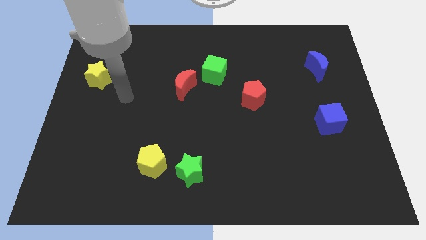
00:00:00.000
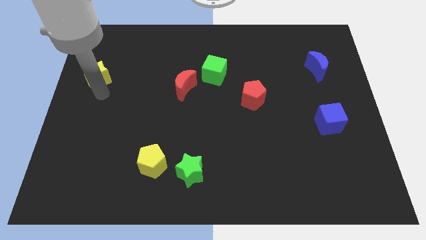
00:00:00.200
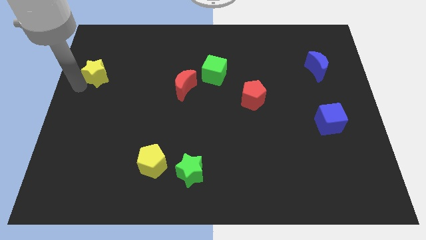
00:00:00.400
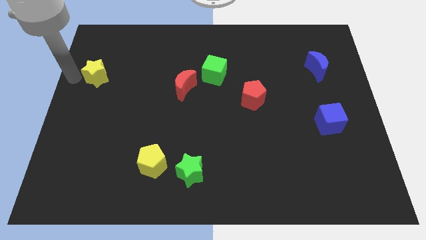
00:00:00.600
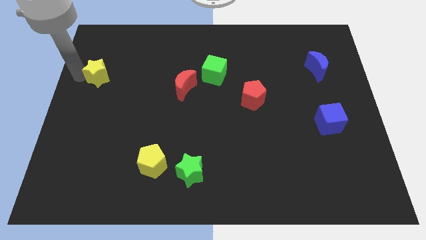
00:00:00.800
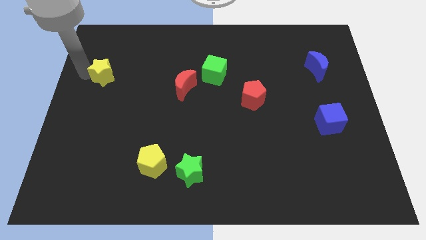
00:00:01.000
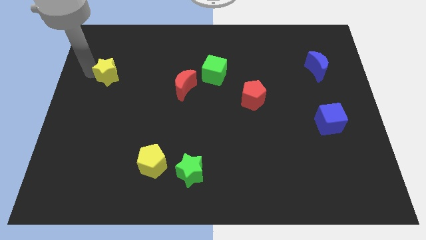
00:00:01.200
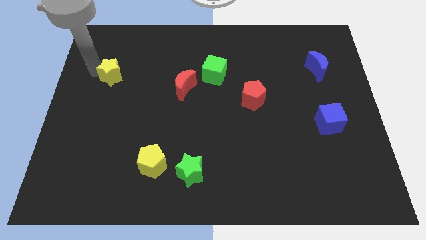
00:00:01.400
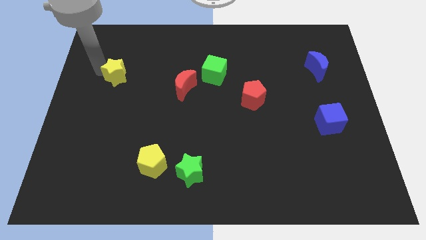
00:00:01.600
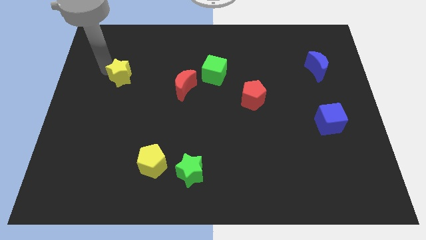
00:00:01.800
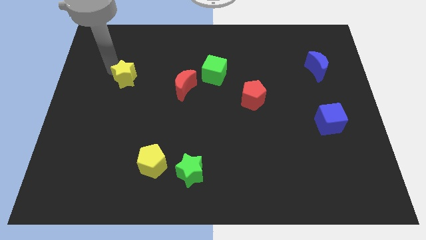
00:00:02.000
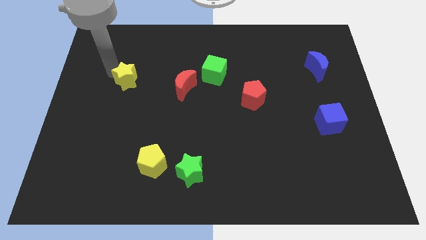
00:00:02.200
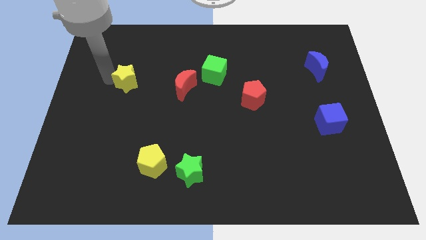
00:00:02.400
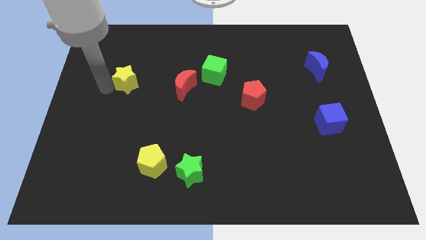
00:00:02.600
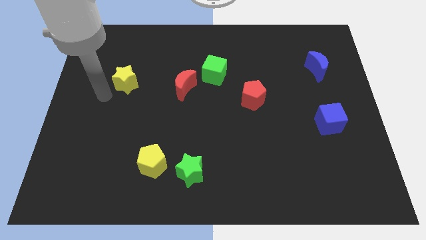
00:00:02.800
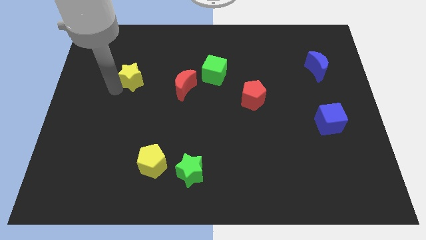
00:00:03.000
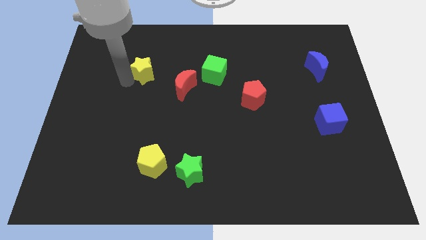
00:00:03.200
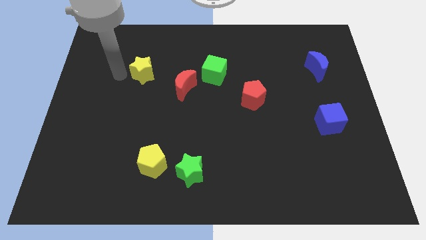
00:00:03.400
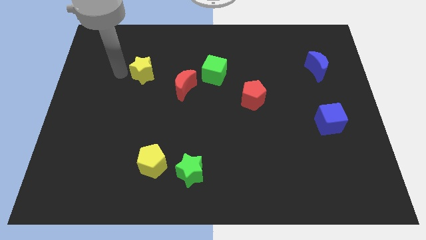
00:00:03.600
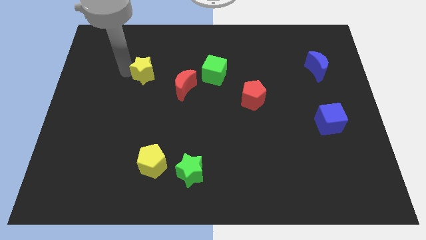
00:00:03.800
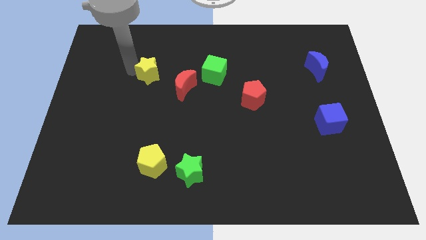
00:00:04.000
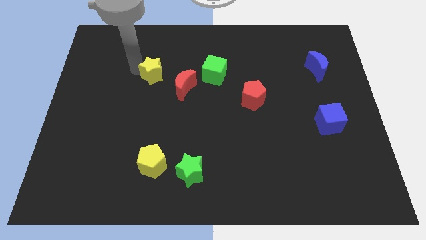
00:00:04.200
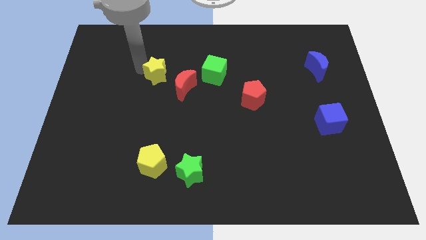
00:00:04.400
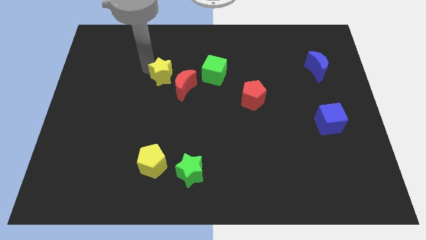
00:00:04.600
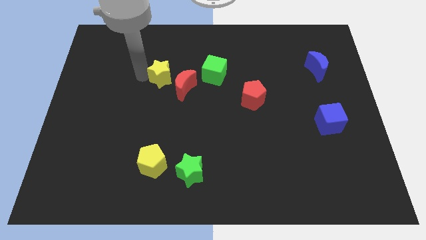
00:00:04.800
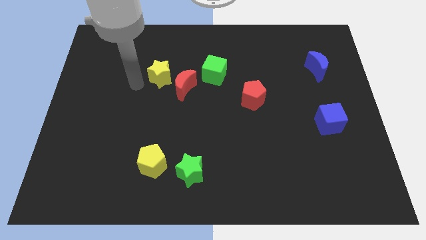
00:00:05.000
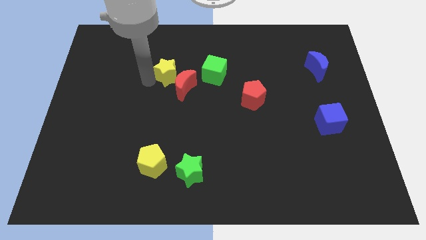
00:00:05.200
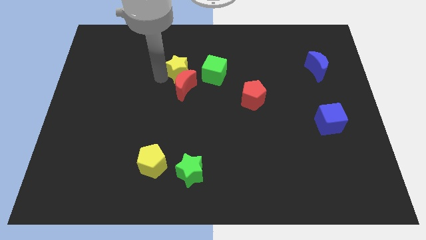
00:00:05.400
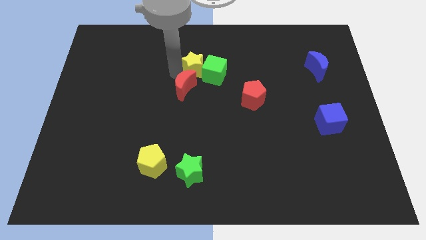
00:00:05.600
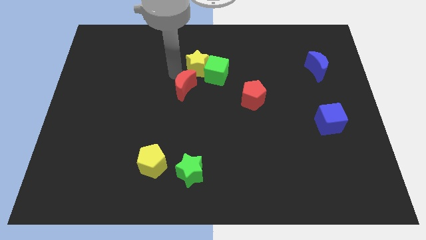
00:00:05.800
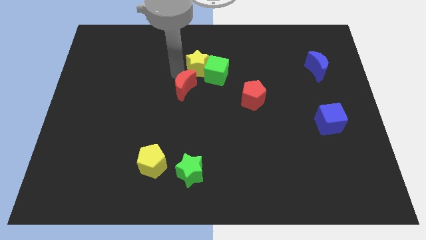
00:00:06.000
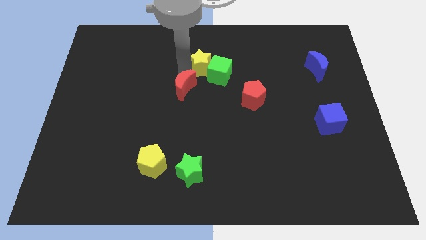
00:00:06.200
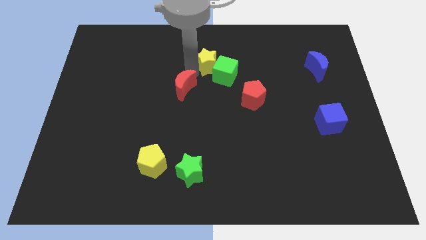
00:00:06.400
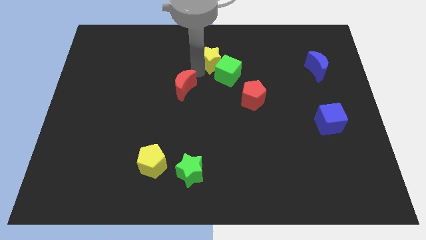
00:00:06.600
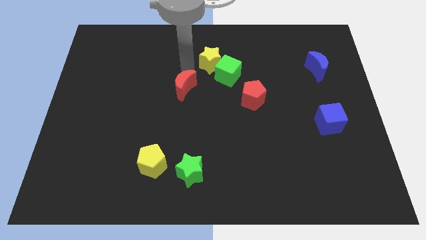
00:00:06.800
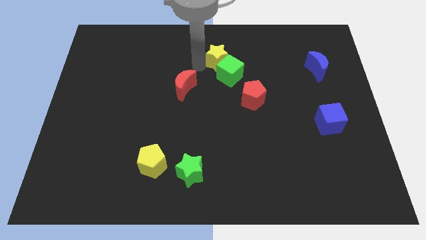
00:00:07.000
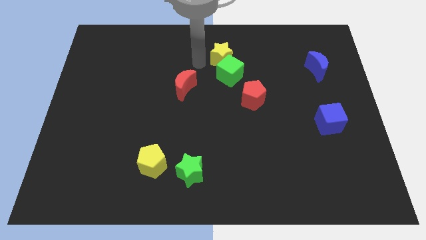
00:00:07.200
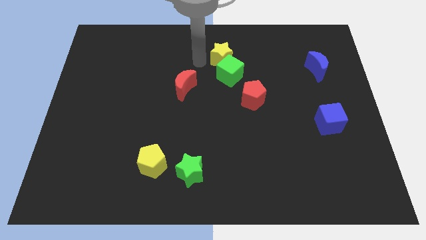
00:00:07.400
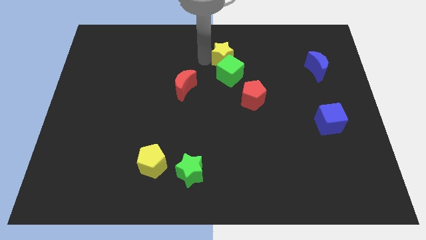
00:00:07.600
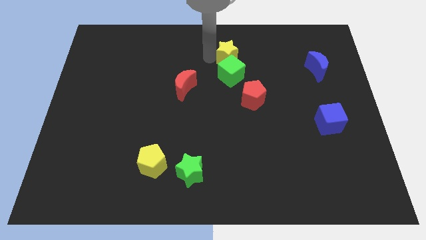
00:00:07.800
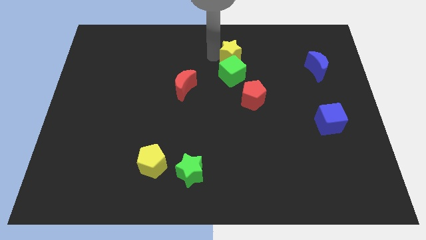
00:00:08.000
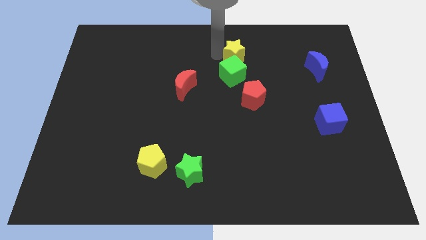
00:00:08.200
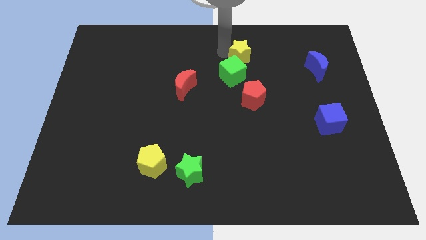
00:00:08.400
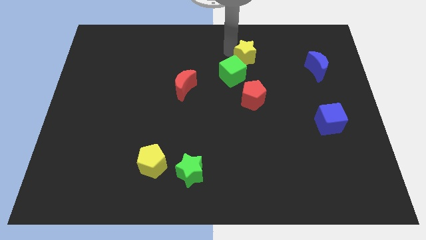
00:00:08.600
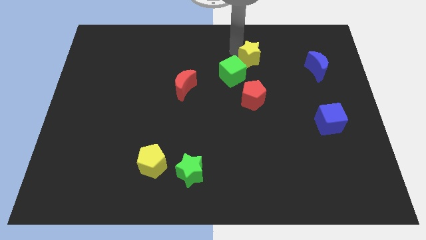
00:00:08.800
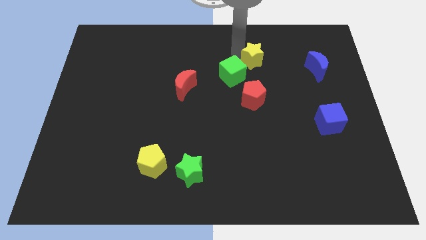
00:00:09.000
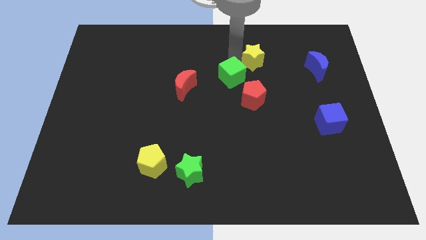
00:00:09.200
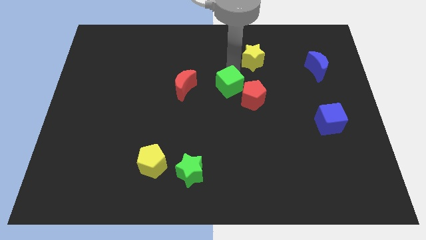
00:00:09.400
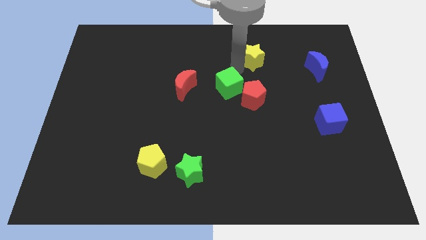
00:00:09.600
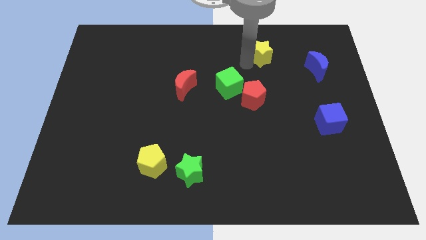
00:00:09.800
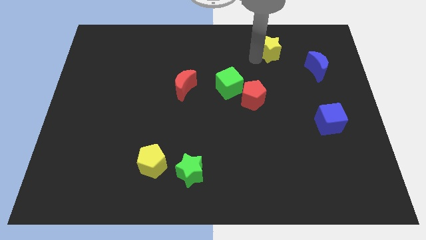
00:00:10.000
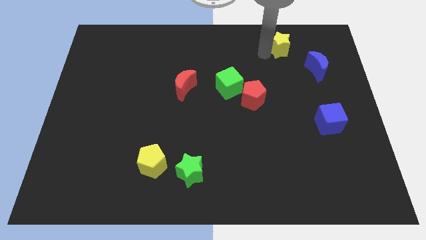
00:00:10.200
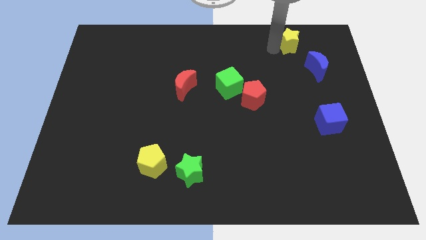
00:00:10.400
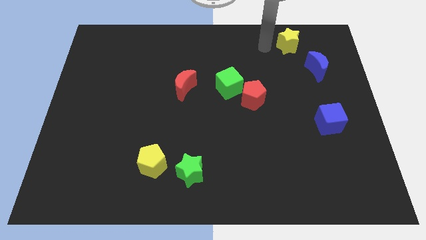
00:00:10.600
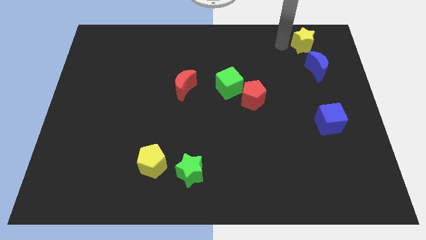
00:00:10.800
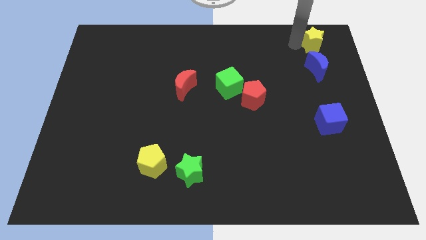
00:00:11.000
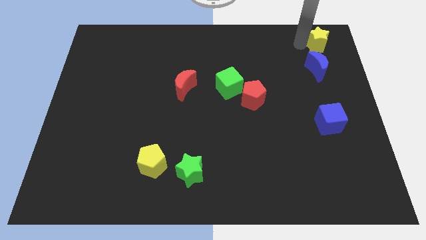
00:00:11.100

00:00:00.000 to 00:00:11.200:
put the yellow star to the upper right corner
